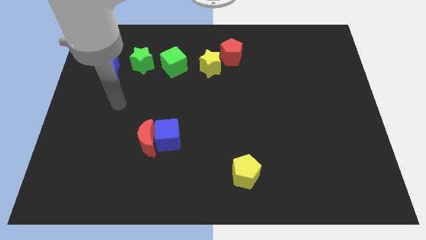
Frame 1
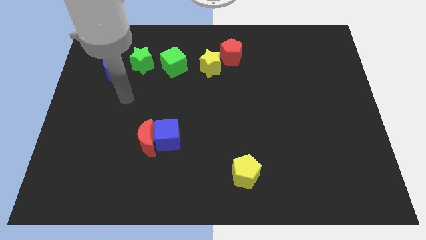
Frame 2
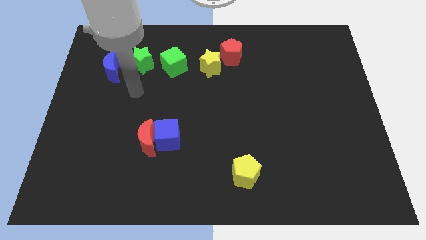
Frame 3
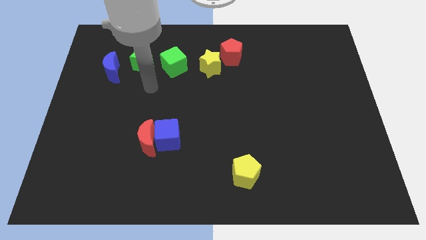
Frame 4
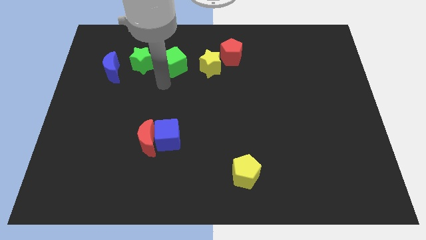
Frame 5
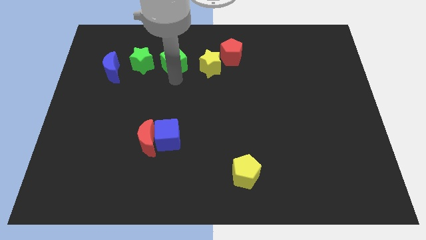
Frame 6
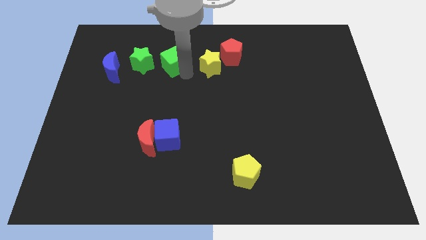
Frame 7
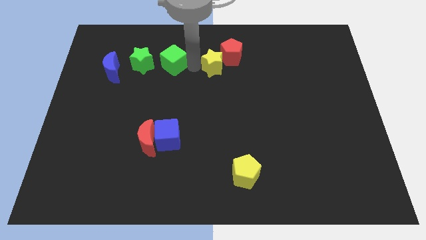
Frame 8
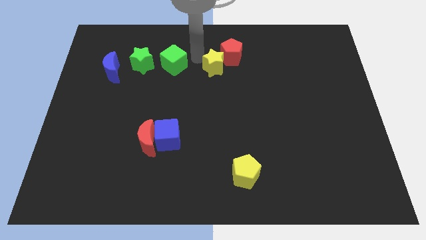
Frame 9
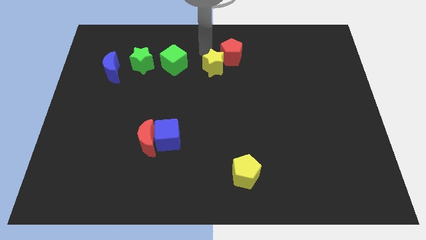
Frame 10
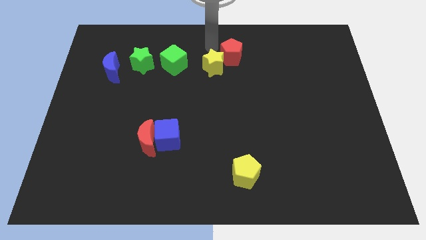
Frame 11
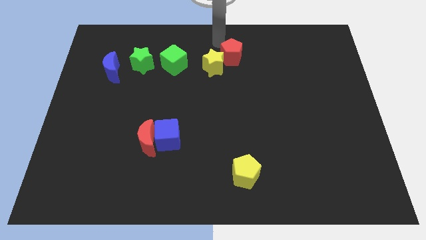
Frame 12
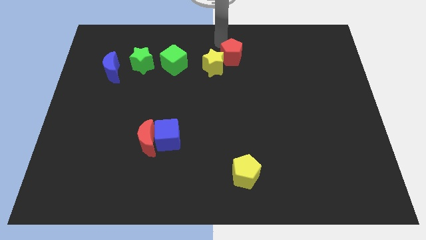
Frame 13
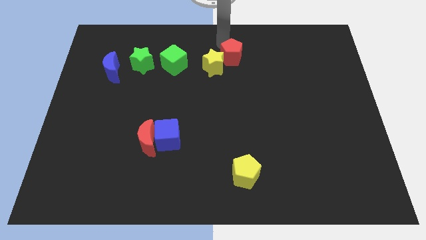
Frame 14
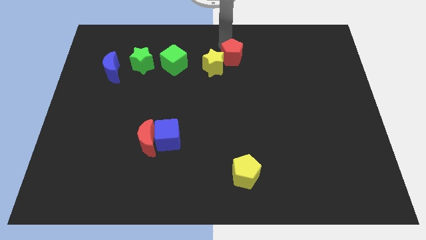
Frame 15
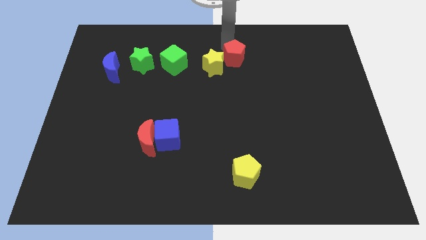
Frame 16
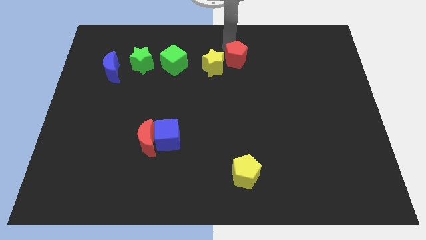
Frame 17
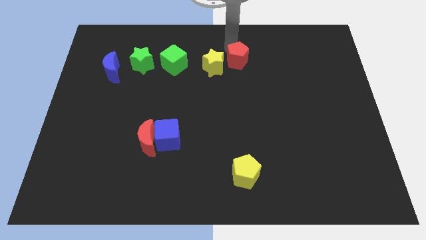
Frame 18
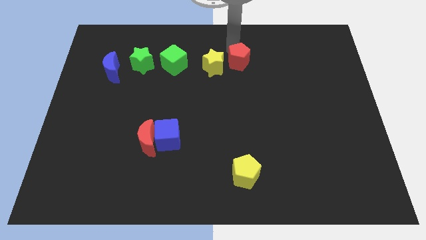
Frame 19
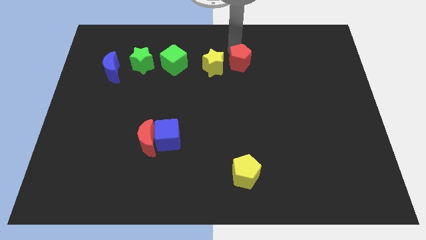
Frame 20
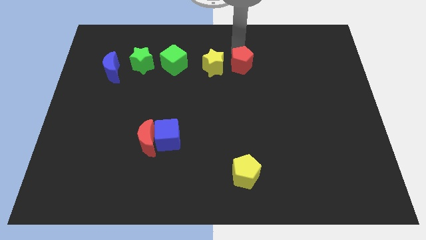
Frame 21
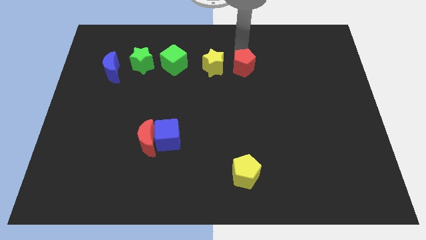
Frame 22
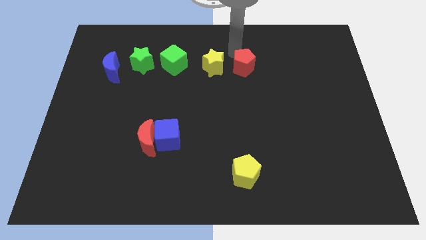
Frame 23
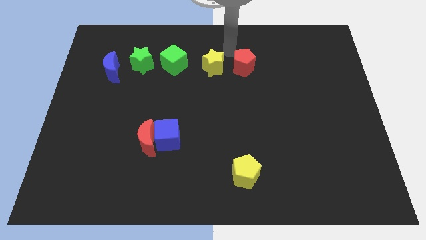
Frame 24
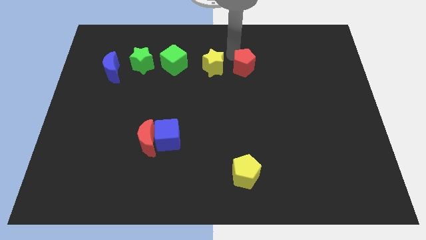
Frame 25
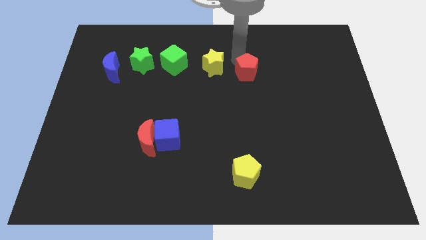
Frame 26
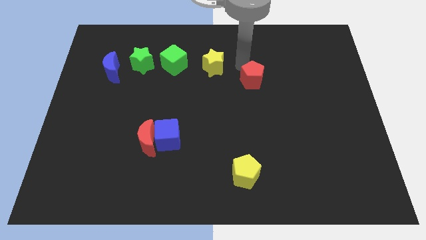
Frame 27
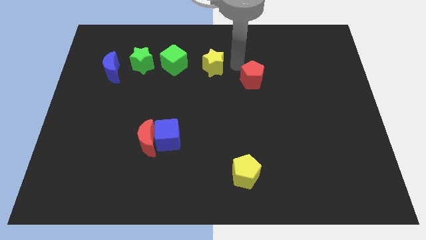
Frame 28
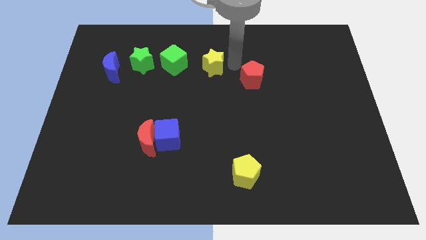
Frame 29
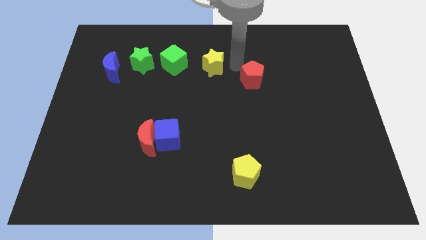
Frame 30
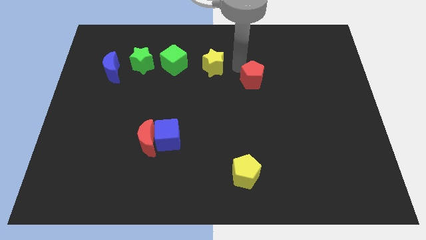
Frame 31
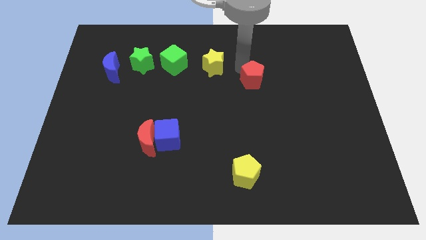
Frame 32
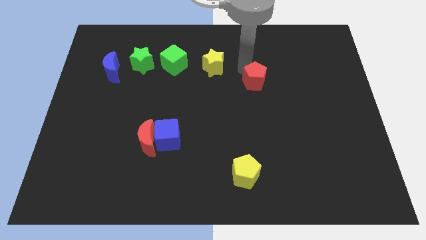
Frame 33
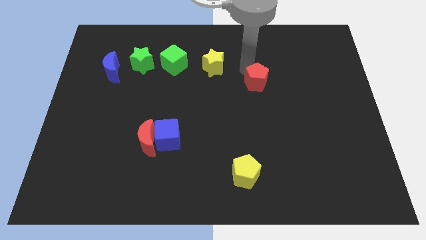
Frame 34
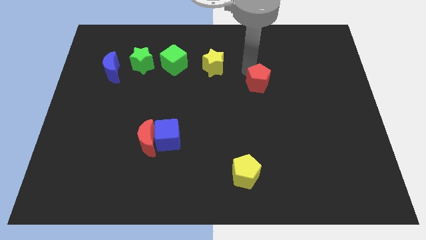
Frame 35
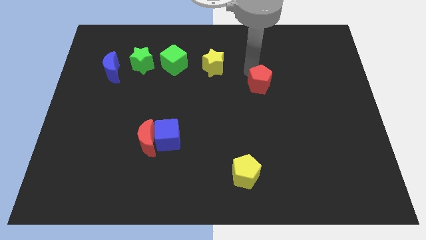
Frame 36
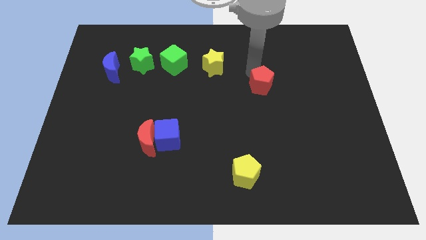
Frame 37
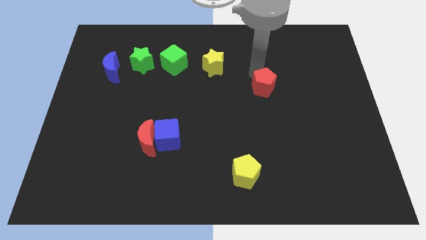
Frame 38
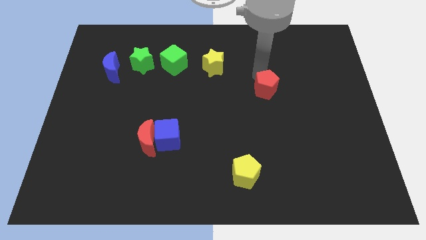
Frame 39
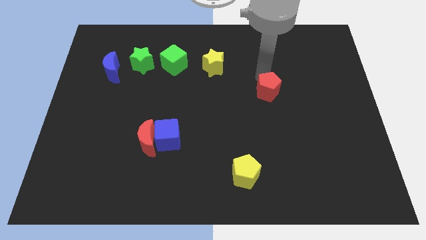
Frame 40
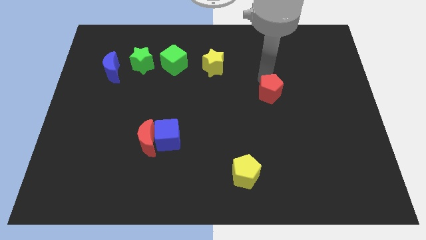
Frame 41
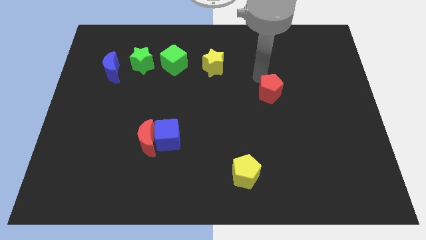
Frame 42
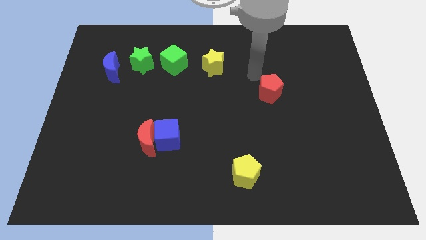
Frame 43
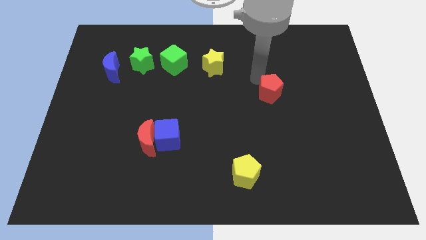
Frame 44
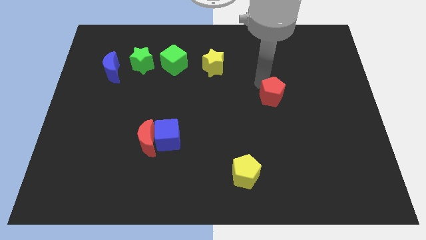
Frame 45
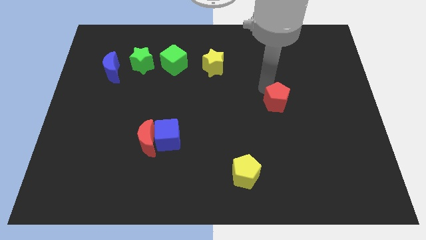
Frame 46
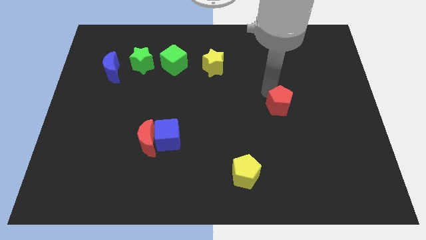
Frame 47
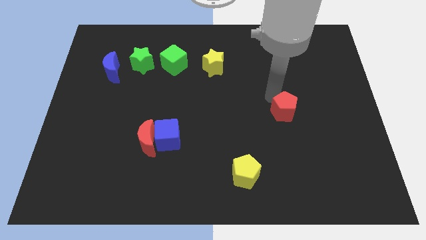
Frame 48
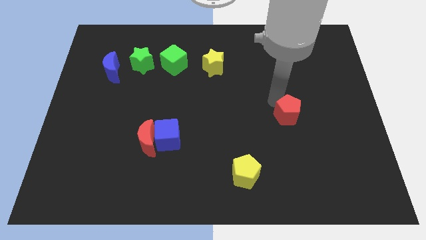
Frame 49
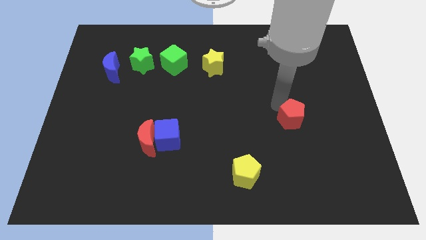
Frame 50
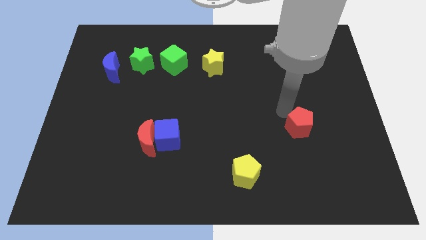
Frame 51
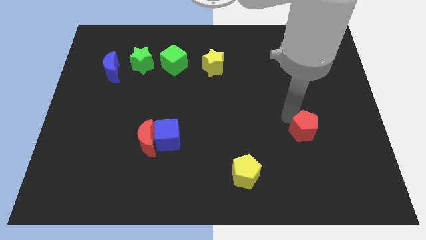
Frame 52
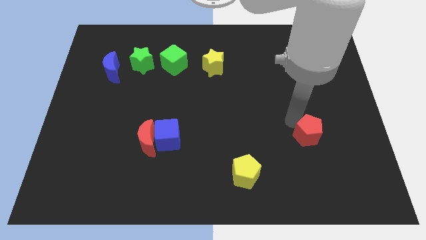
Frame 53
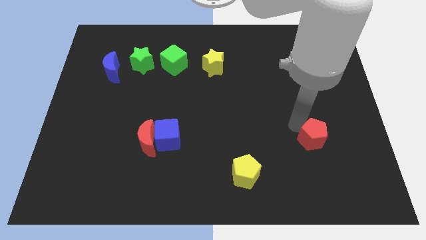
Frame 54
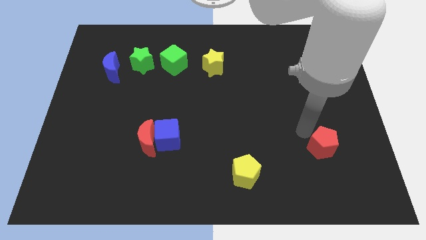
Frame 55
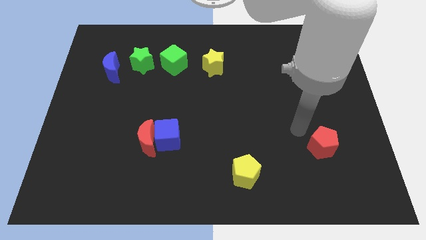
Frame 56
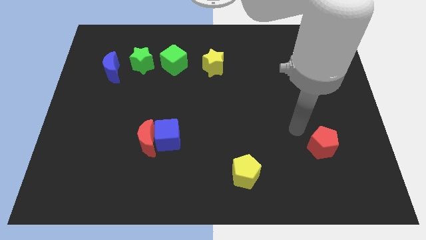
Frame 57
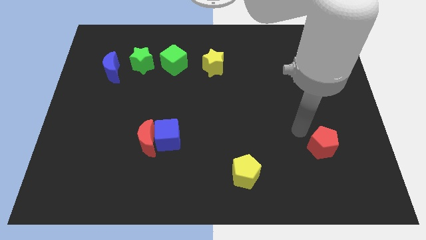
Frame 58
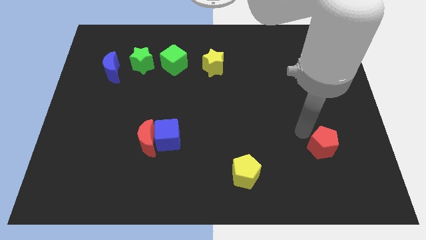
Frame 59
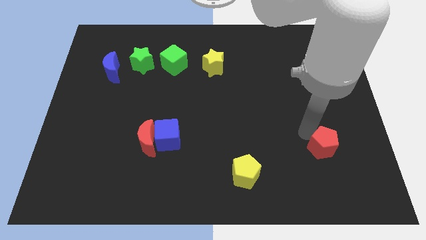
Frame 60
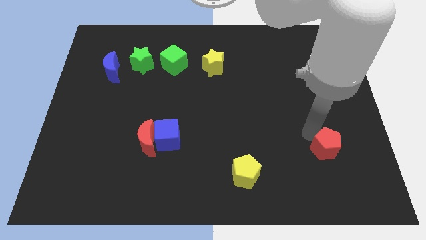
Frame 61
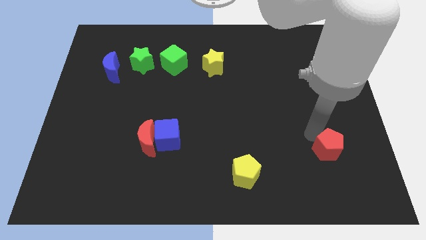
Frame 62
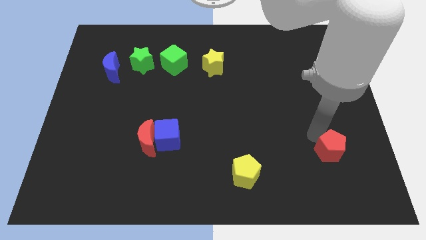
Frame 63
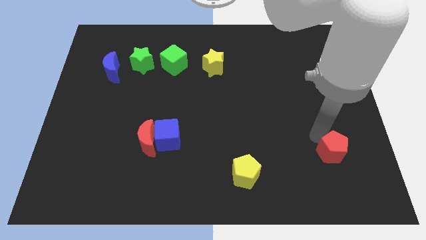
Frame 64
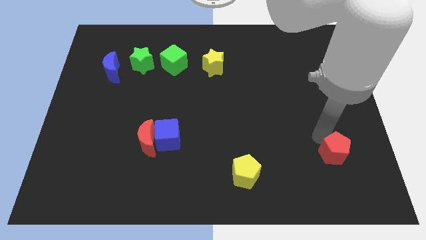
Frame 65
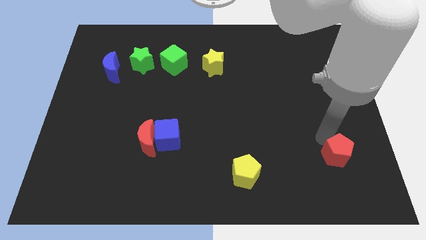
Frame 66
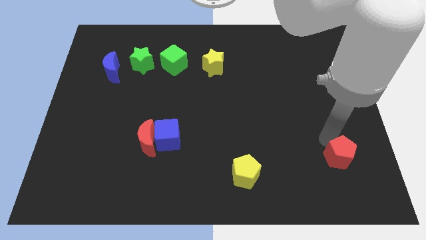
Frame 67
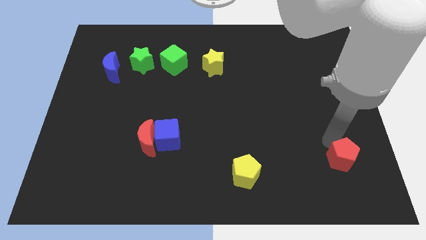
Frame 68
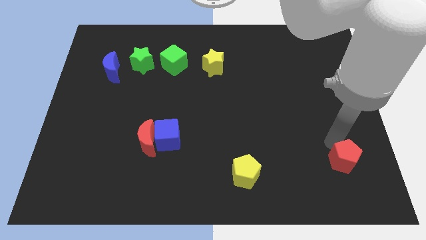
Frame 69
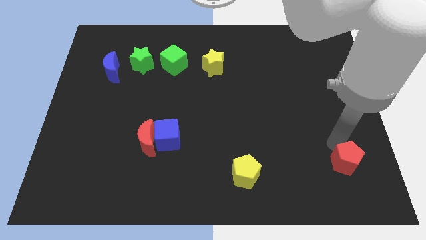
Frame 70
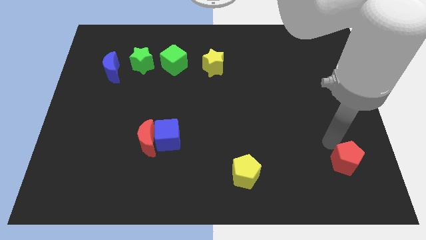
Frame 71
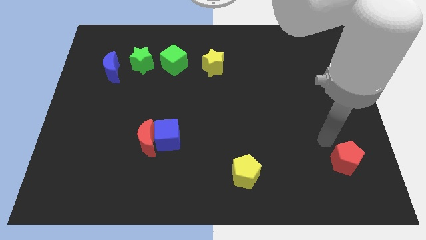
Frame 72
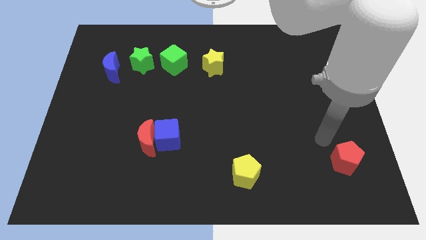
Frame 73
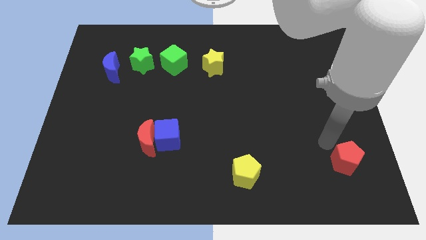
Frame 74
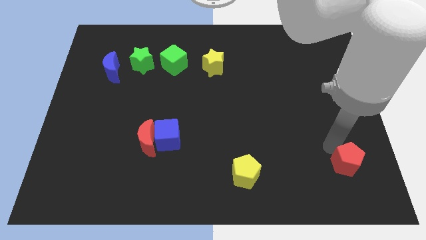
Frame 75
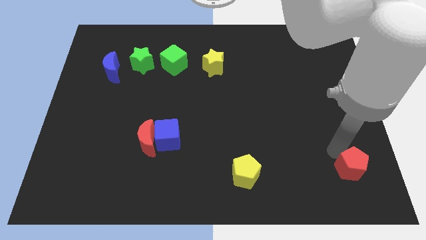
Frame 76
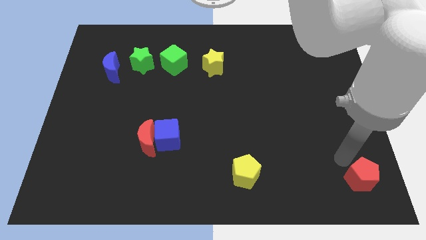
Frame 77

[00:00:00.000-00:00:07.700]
push the red pentagon to the bottom right of the board
